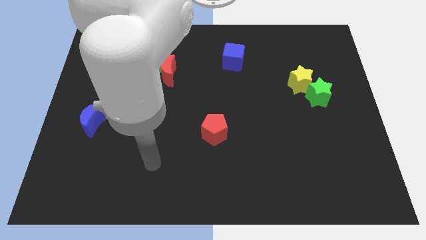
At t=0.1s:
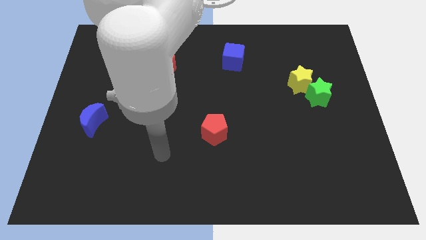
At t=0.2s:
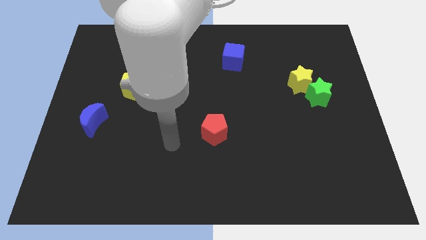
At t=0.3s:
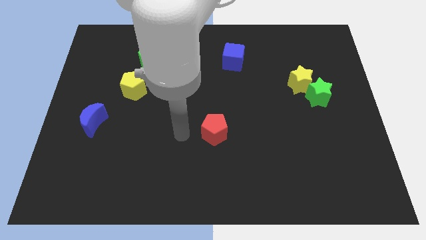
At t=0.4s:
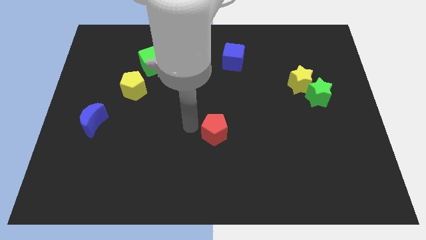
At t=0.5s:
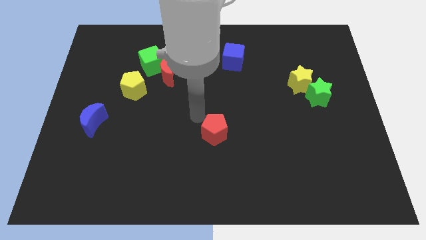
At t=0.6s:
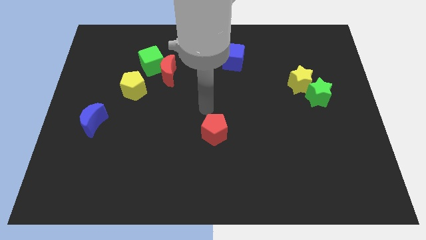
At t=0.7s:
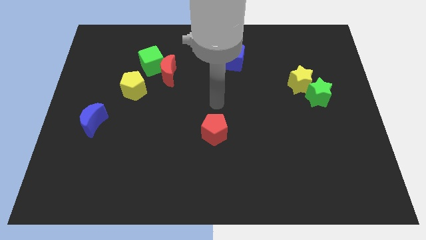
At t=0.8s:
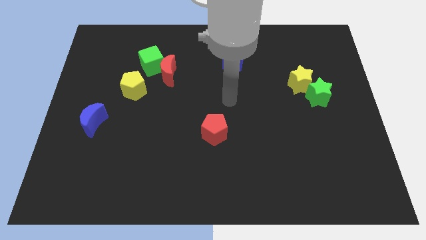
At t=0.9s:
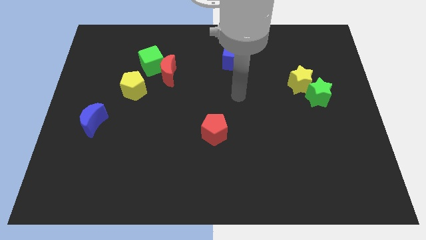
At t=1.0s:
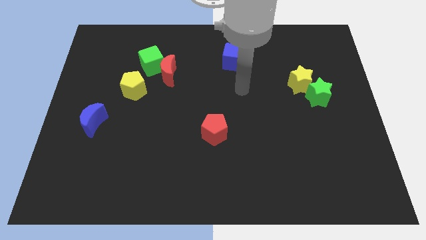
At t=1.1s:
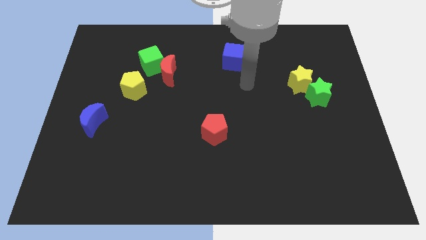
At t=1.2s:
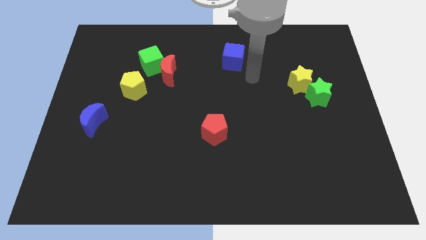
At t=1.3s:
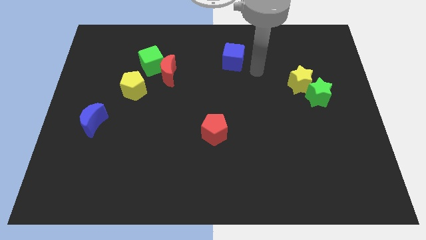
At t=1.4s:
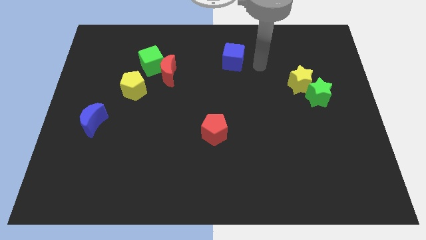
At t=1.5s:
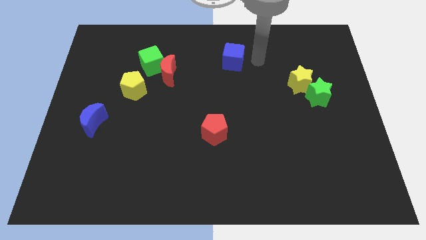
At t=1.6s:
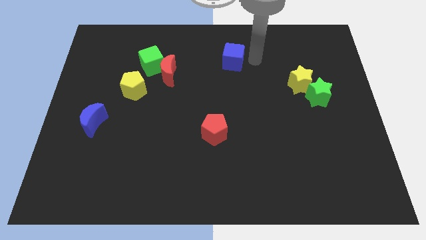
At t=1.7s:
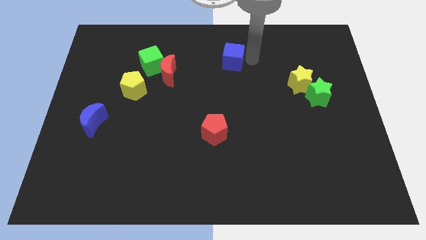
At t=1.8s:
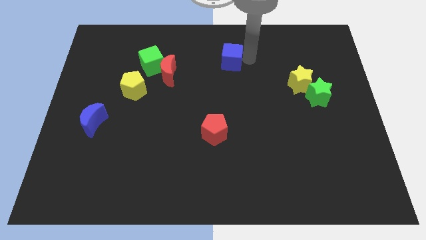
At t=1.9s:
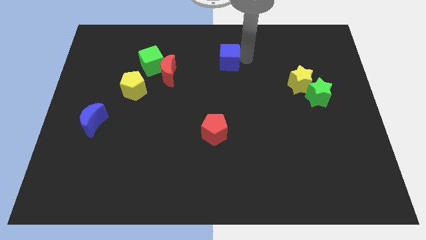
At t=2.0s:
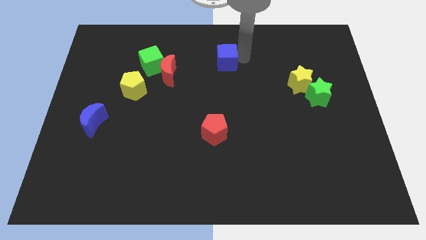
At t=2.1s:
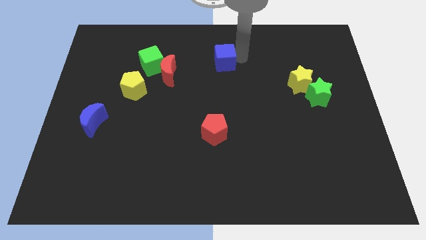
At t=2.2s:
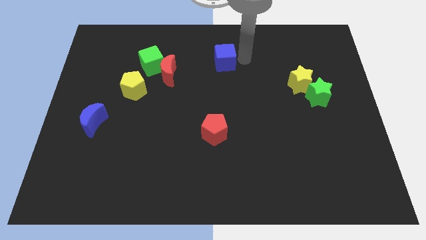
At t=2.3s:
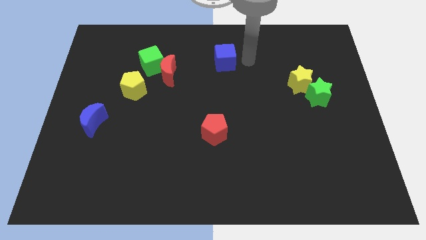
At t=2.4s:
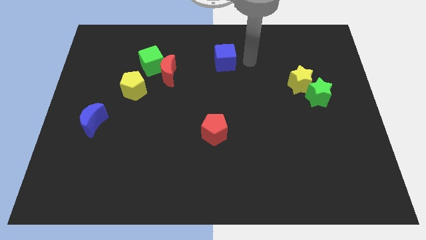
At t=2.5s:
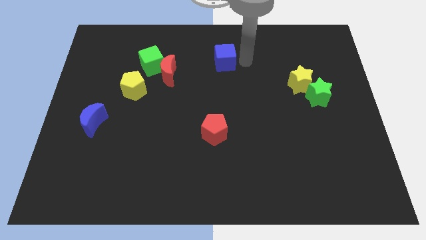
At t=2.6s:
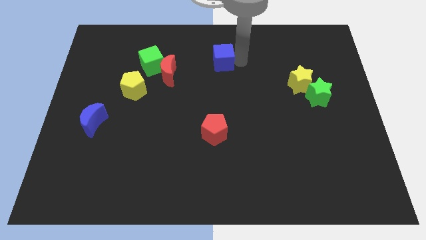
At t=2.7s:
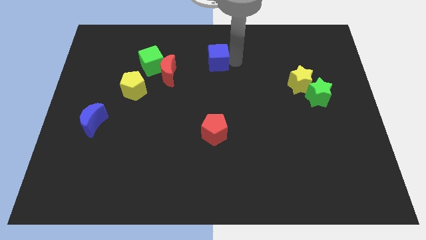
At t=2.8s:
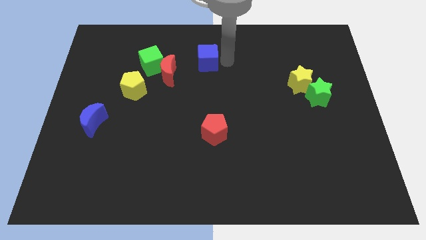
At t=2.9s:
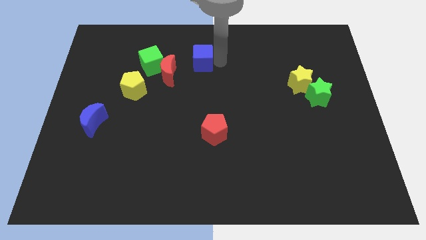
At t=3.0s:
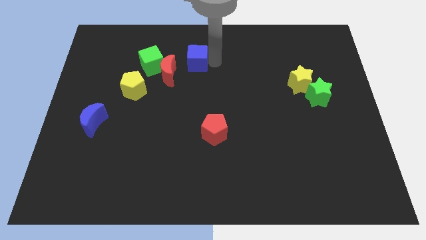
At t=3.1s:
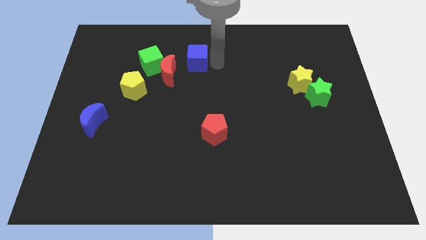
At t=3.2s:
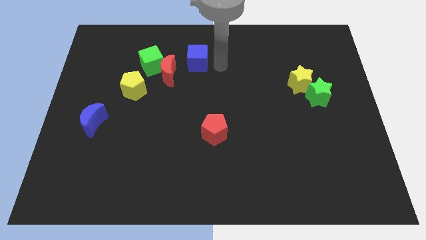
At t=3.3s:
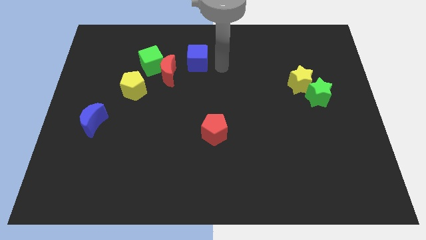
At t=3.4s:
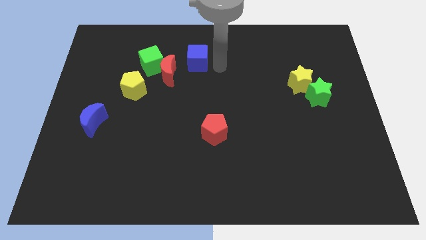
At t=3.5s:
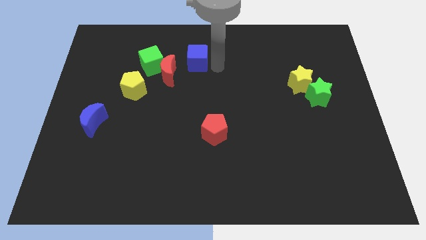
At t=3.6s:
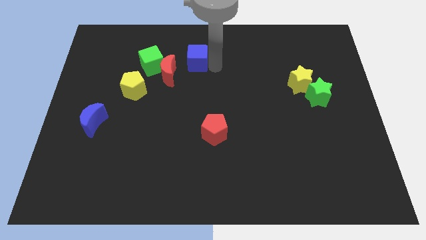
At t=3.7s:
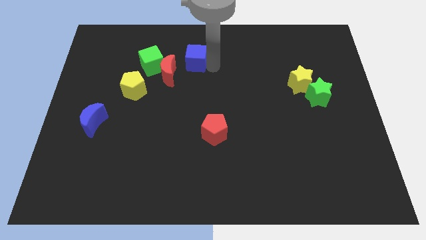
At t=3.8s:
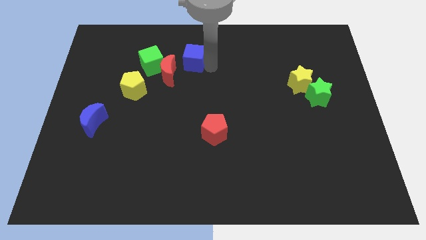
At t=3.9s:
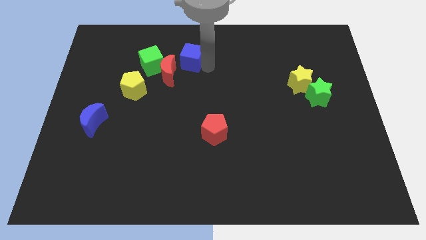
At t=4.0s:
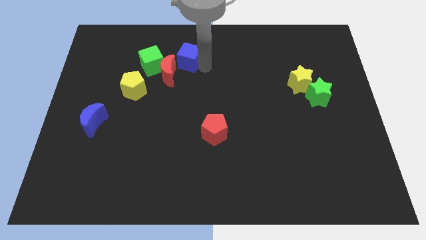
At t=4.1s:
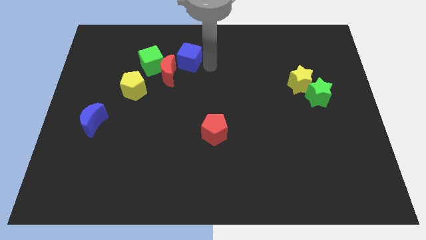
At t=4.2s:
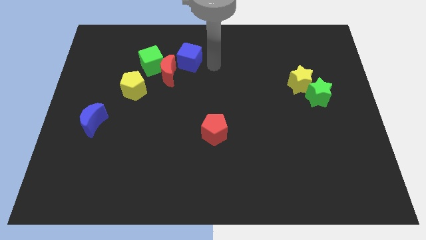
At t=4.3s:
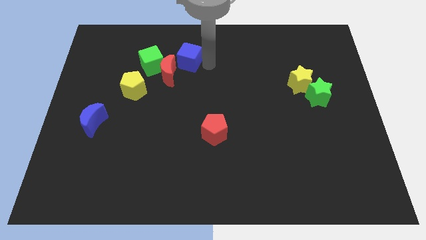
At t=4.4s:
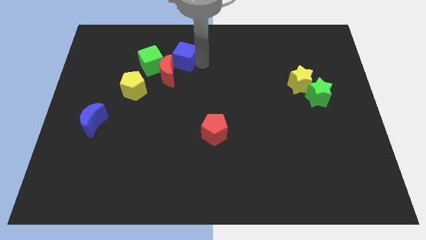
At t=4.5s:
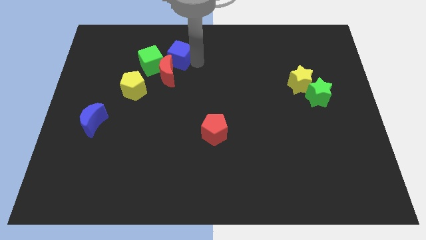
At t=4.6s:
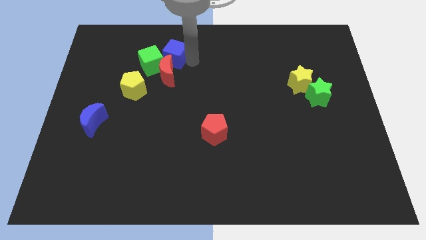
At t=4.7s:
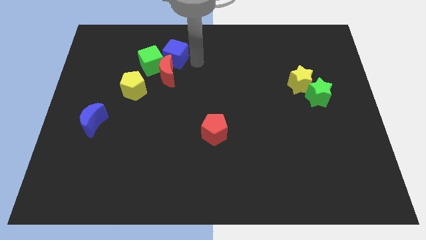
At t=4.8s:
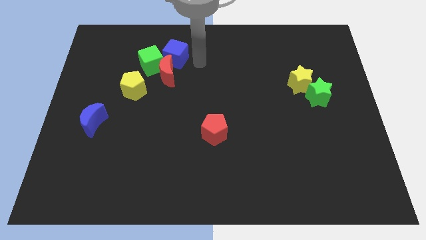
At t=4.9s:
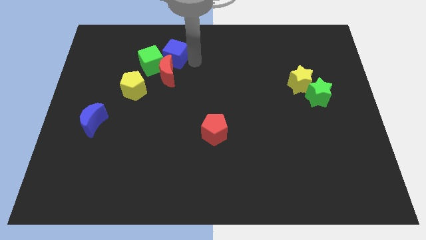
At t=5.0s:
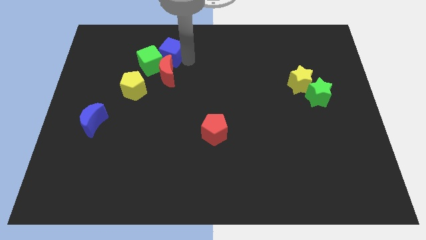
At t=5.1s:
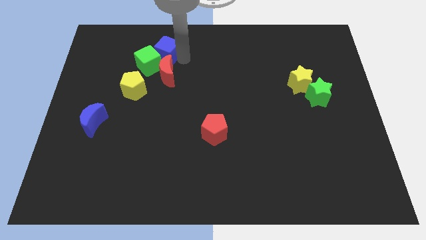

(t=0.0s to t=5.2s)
push the blue cube to the top left side of the red moon

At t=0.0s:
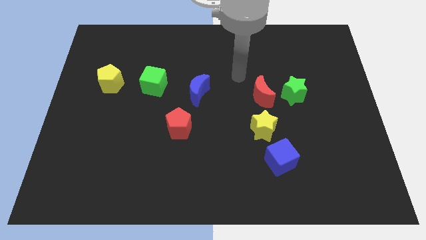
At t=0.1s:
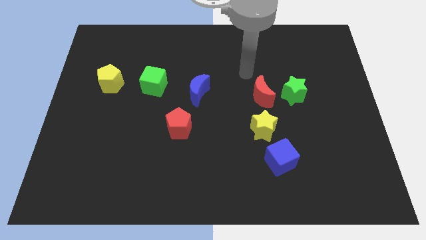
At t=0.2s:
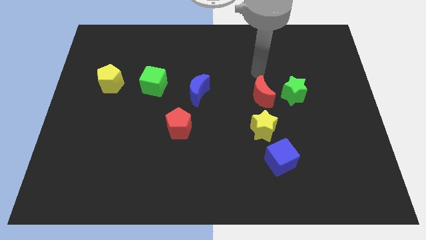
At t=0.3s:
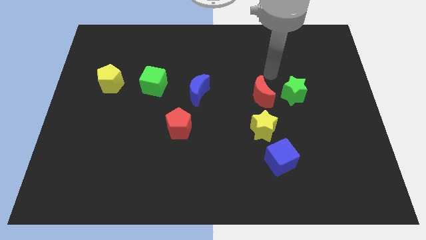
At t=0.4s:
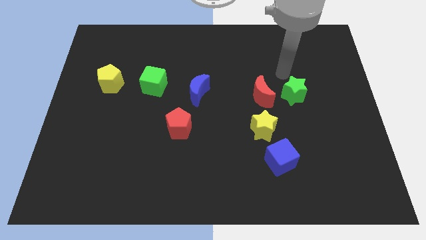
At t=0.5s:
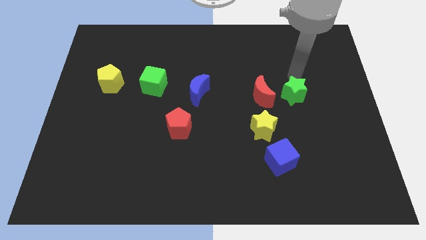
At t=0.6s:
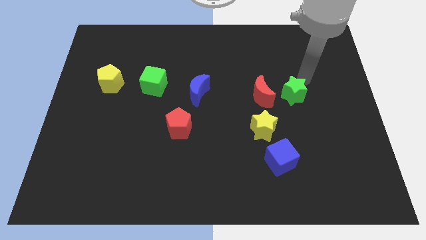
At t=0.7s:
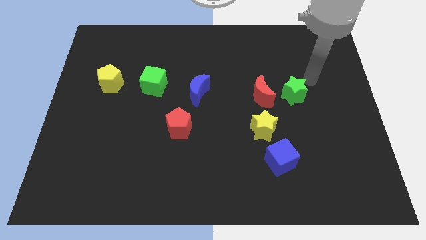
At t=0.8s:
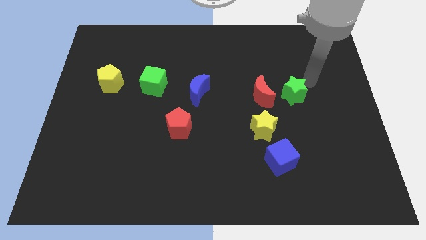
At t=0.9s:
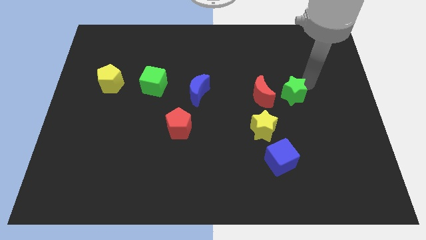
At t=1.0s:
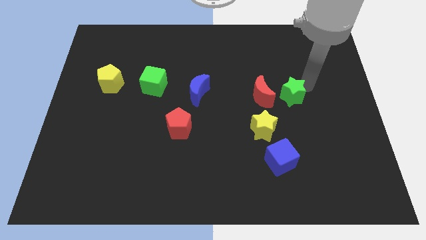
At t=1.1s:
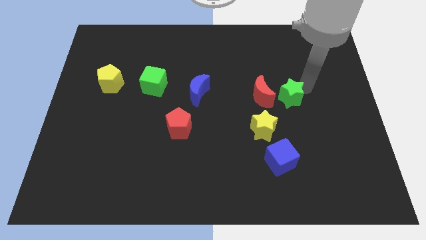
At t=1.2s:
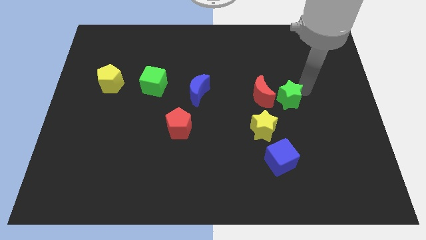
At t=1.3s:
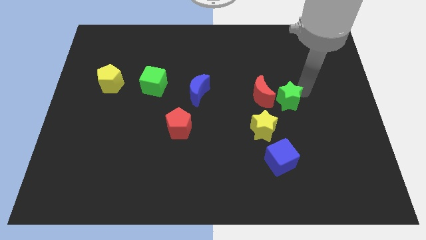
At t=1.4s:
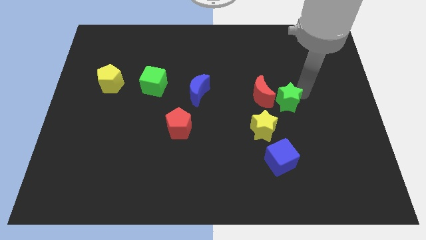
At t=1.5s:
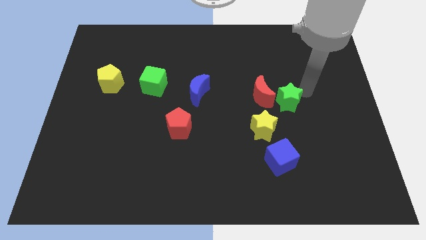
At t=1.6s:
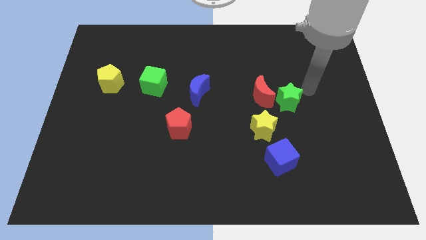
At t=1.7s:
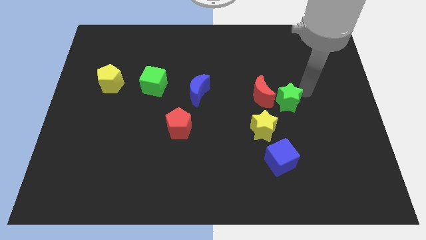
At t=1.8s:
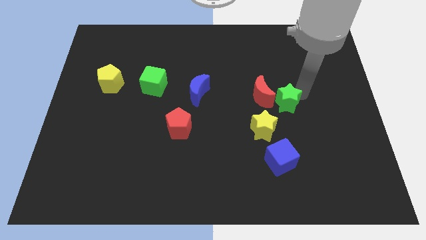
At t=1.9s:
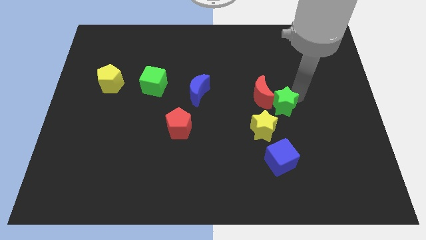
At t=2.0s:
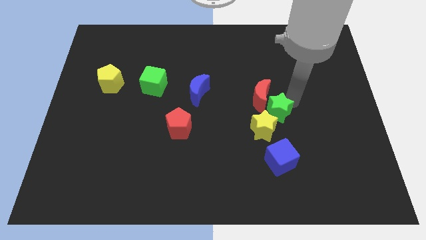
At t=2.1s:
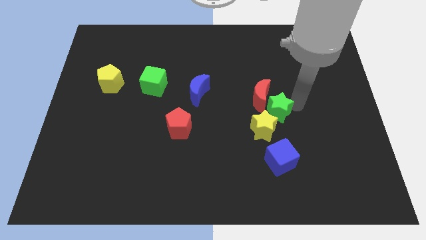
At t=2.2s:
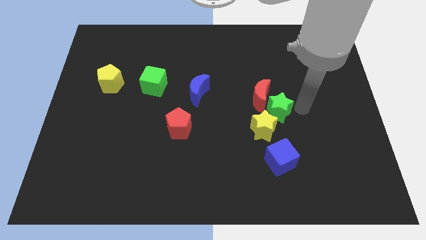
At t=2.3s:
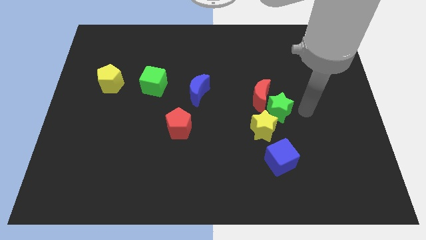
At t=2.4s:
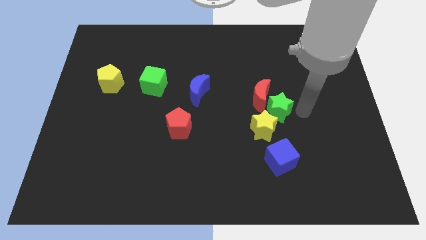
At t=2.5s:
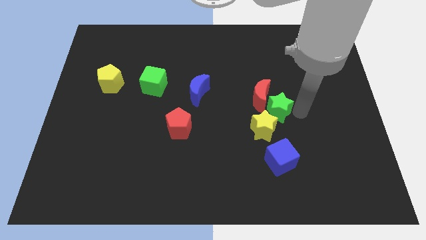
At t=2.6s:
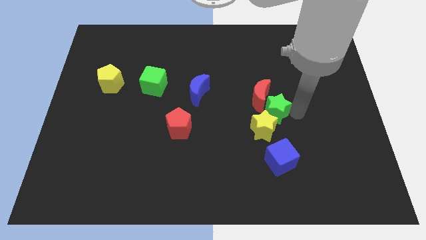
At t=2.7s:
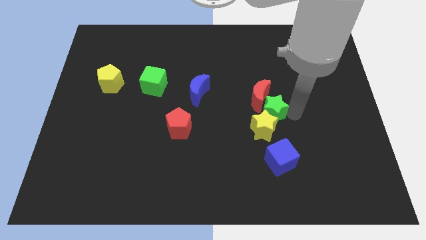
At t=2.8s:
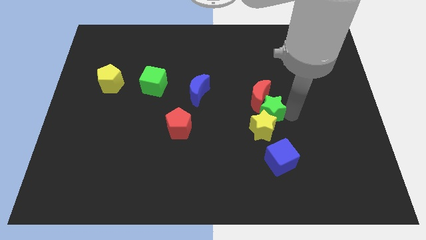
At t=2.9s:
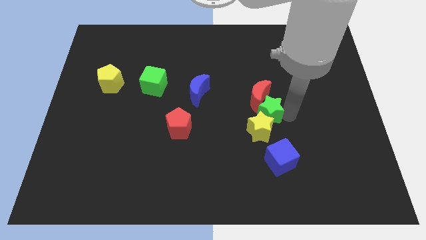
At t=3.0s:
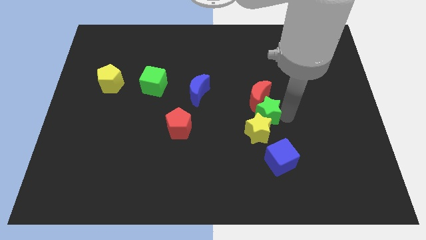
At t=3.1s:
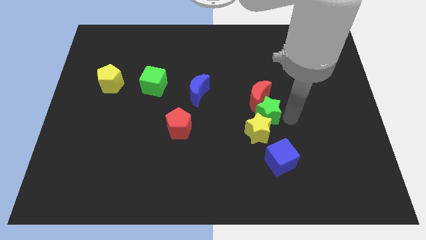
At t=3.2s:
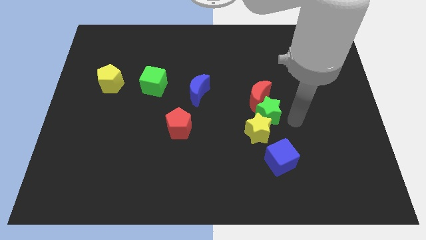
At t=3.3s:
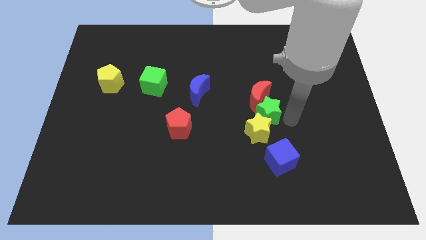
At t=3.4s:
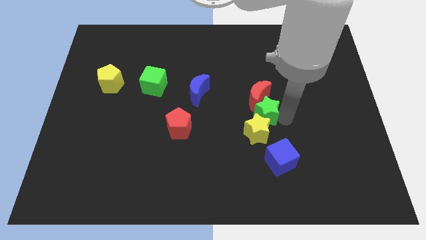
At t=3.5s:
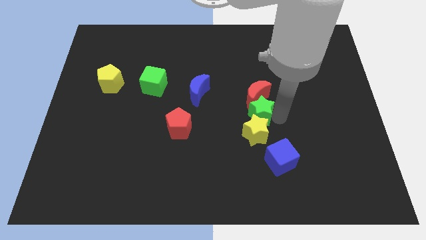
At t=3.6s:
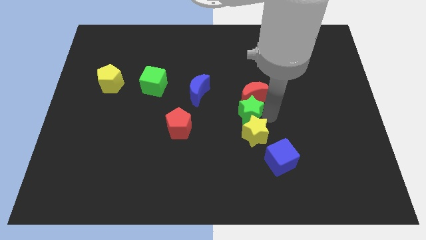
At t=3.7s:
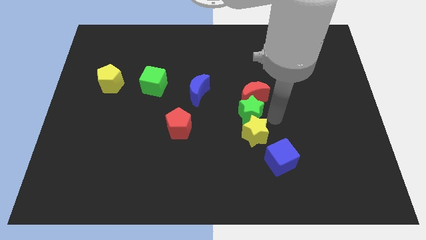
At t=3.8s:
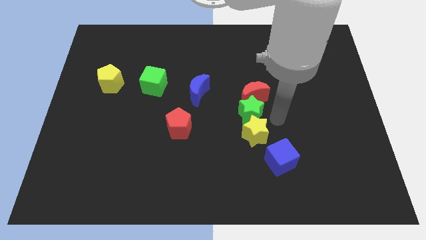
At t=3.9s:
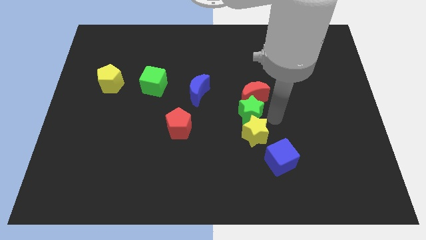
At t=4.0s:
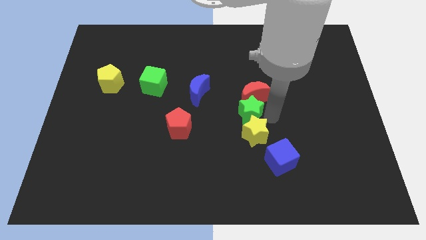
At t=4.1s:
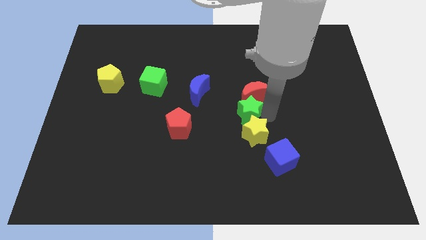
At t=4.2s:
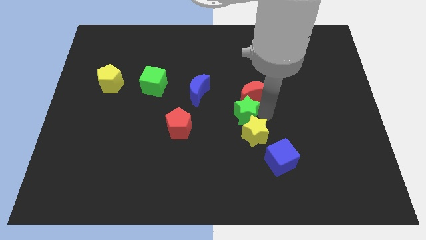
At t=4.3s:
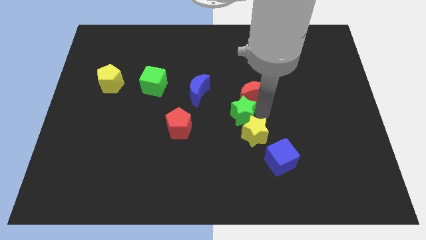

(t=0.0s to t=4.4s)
move the green star diagonally down and to the right of the blue moon
